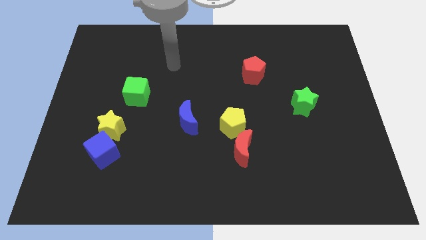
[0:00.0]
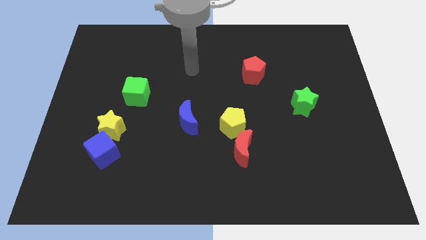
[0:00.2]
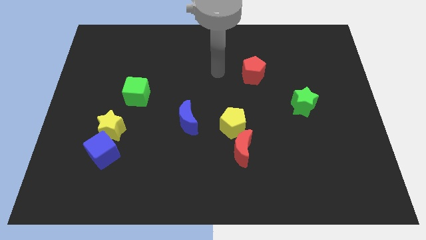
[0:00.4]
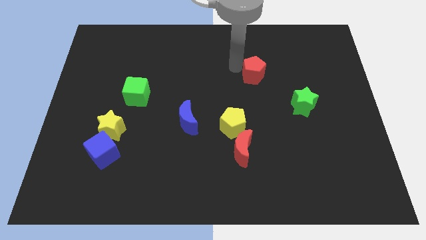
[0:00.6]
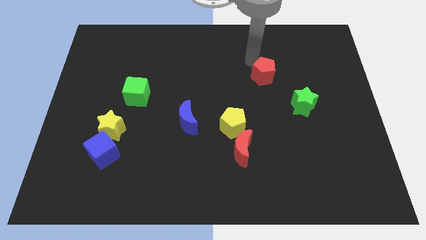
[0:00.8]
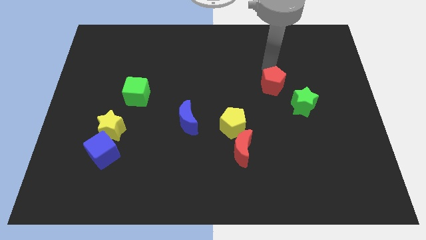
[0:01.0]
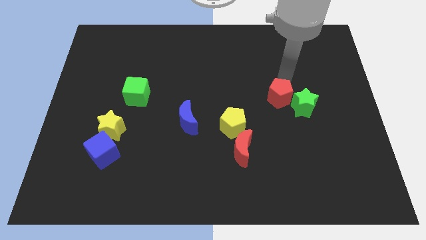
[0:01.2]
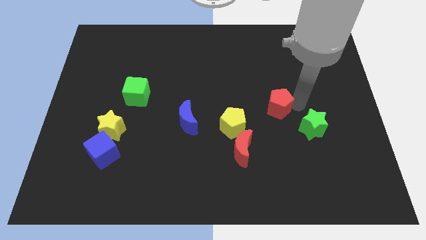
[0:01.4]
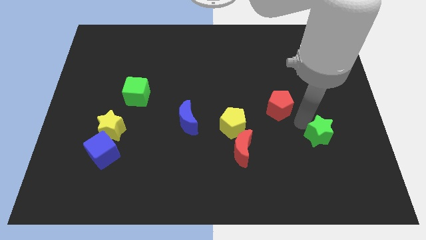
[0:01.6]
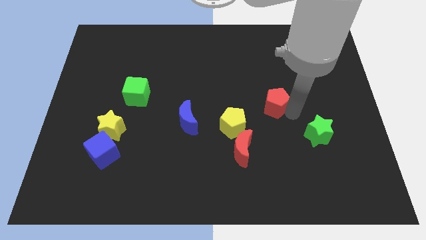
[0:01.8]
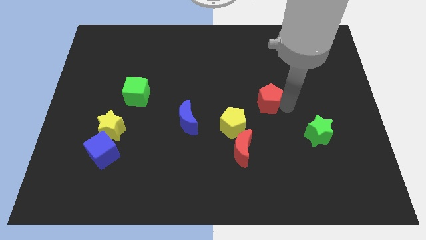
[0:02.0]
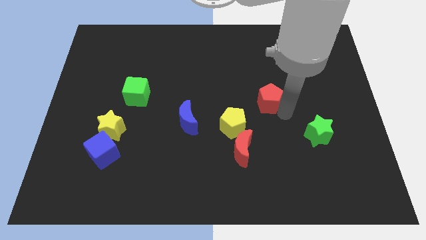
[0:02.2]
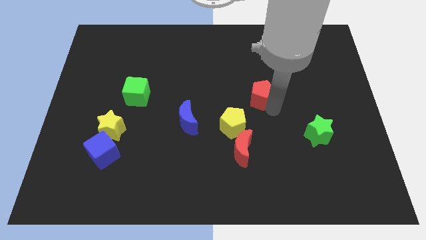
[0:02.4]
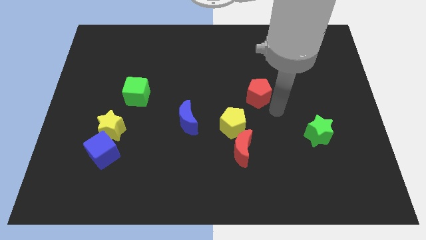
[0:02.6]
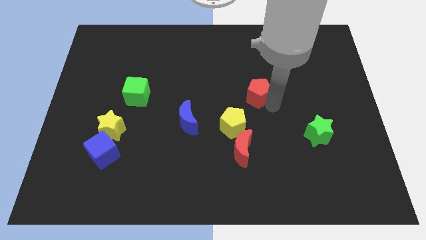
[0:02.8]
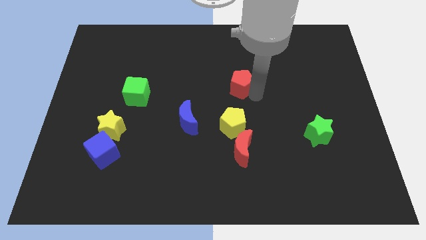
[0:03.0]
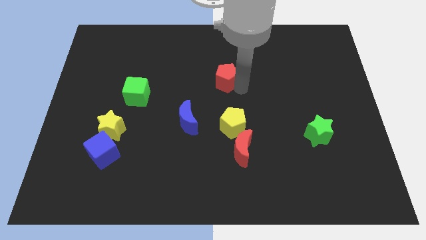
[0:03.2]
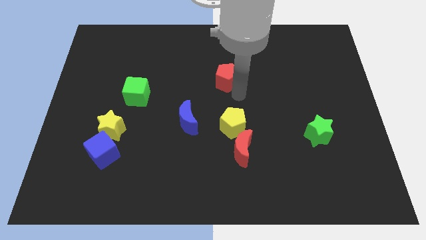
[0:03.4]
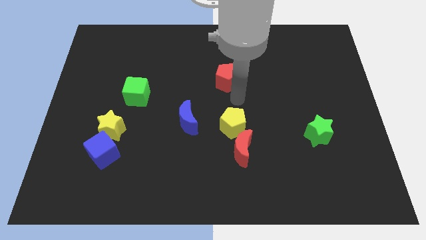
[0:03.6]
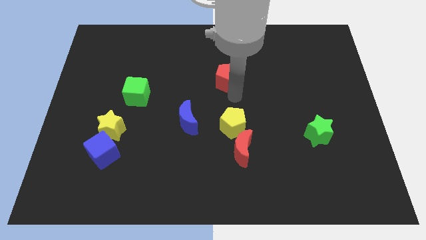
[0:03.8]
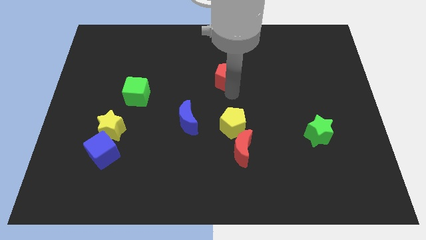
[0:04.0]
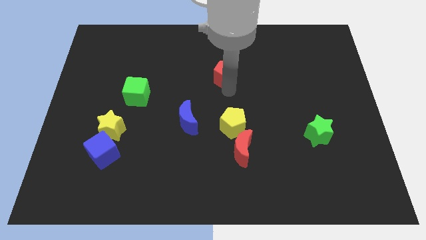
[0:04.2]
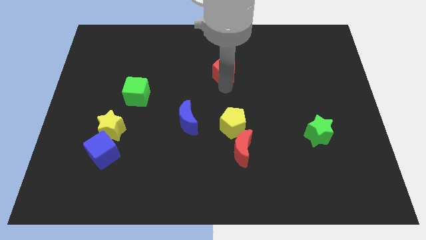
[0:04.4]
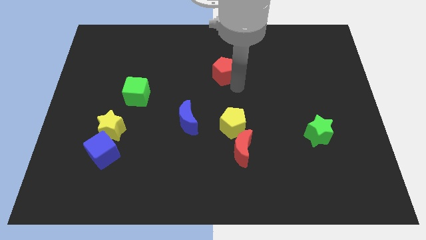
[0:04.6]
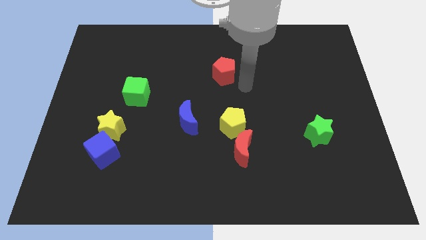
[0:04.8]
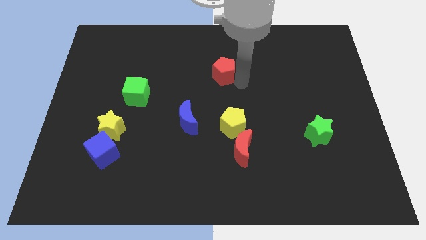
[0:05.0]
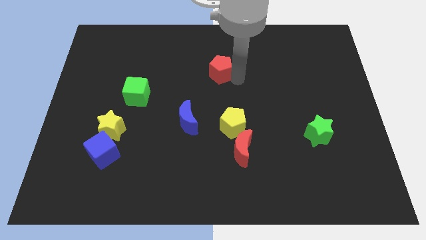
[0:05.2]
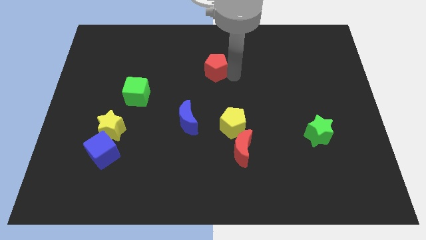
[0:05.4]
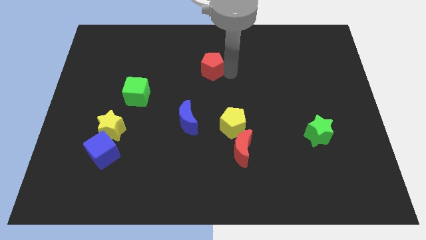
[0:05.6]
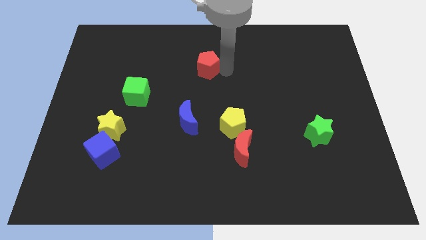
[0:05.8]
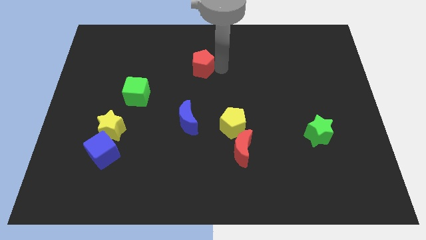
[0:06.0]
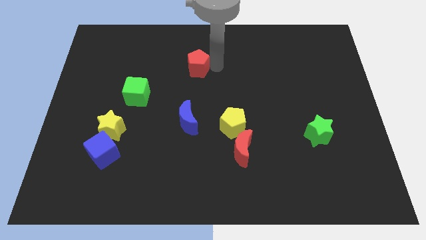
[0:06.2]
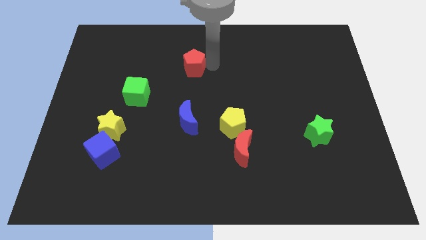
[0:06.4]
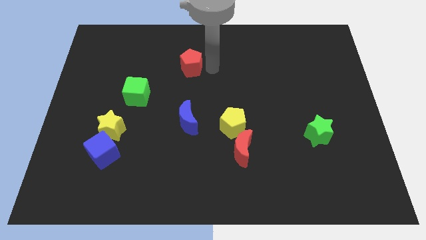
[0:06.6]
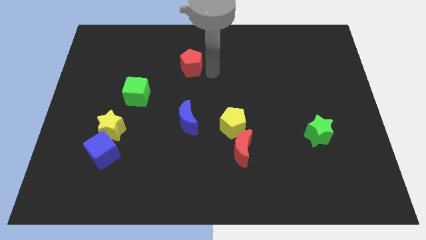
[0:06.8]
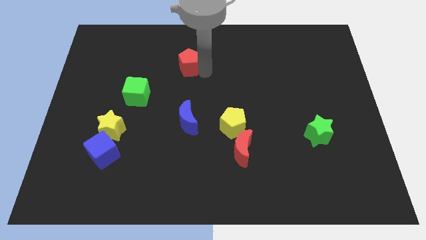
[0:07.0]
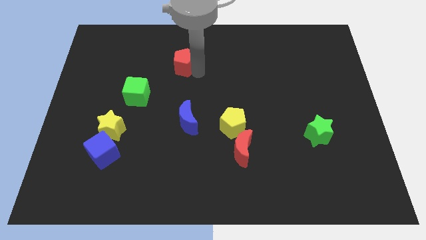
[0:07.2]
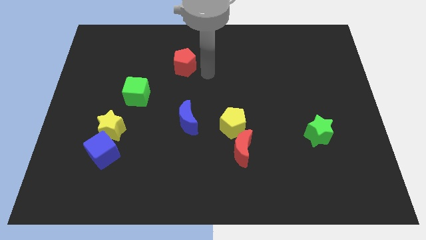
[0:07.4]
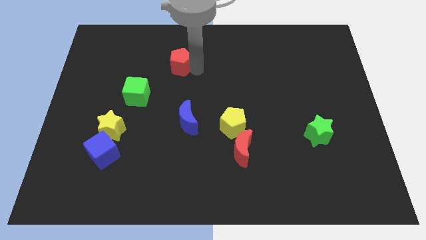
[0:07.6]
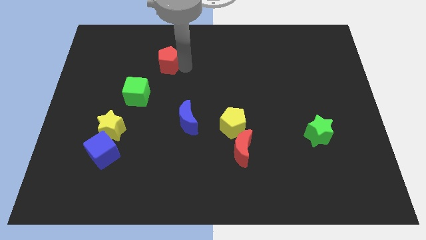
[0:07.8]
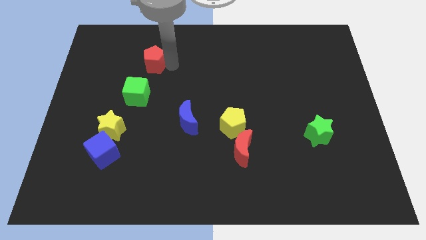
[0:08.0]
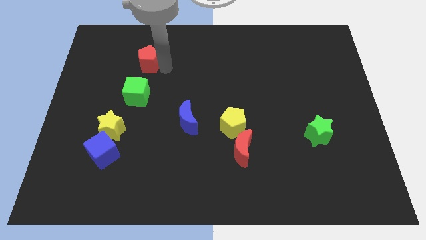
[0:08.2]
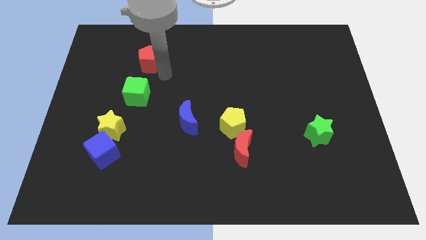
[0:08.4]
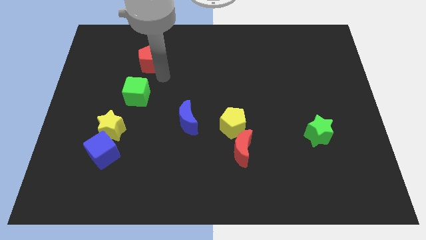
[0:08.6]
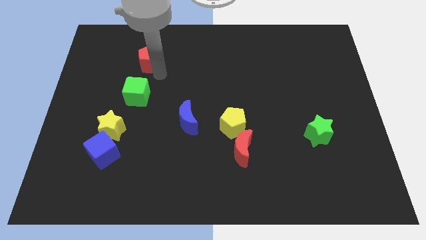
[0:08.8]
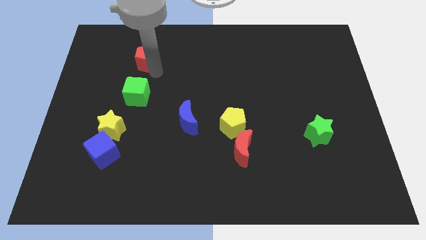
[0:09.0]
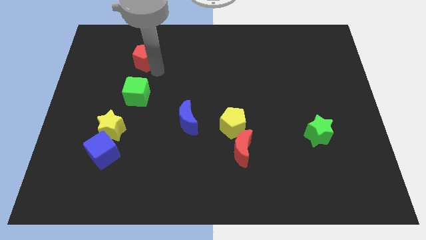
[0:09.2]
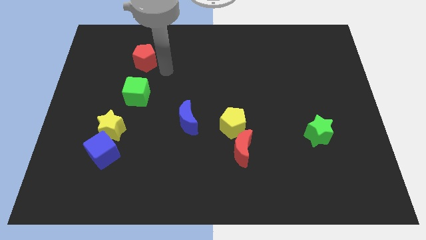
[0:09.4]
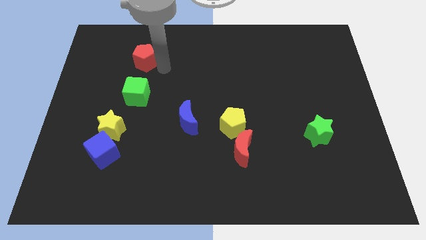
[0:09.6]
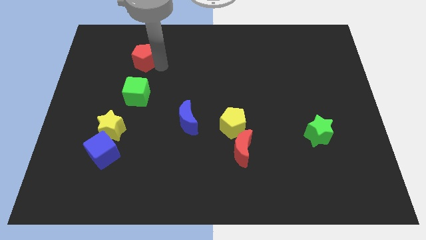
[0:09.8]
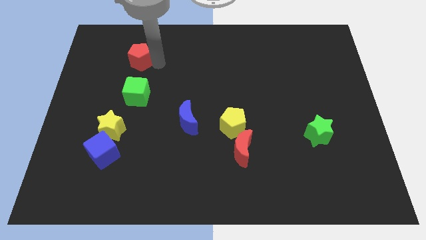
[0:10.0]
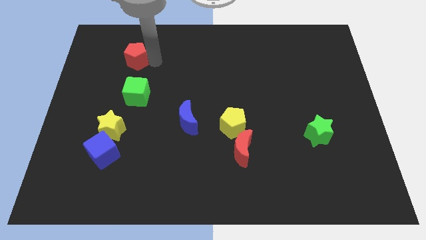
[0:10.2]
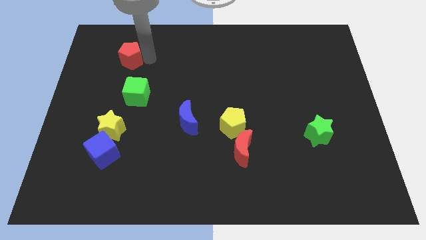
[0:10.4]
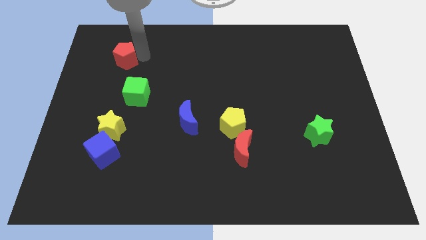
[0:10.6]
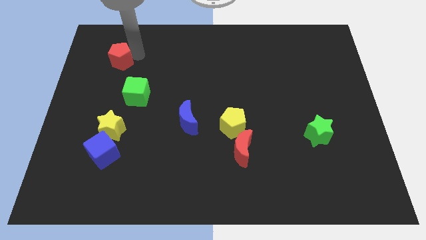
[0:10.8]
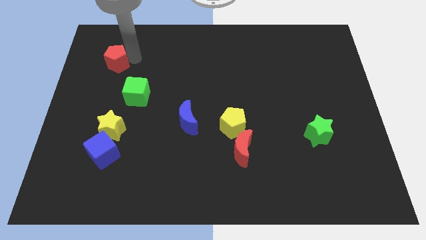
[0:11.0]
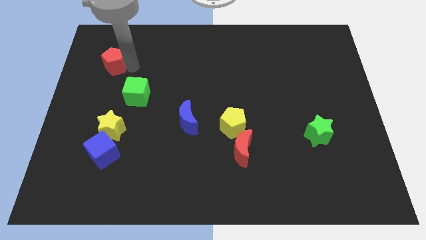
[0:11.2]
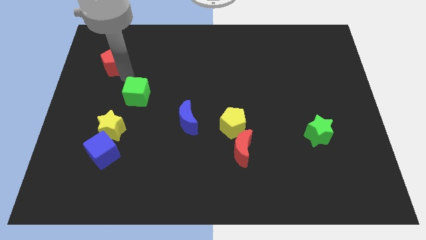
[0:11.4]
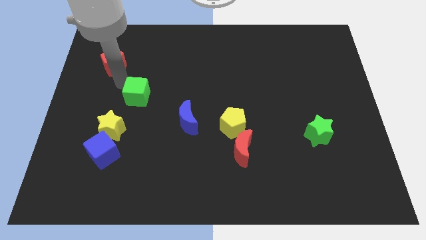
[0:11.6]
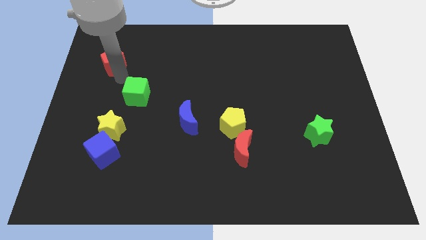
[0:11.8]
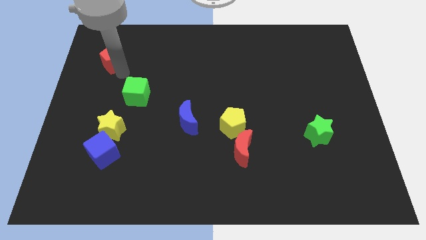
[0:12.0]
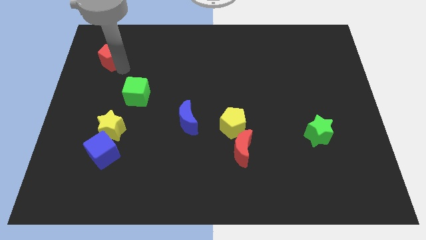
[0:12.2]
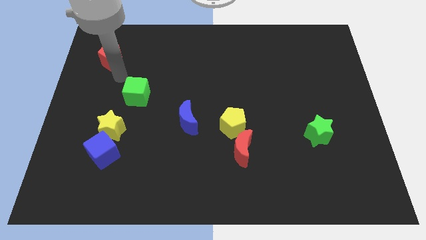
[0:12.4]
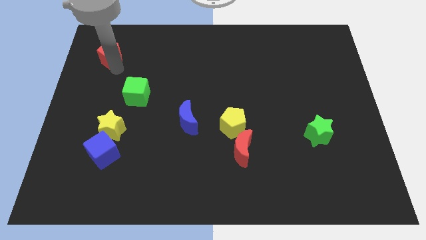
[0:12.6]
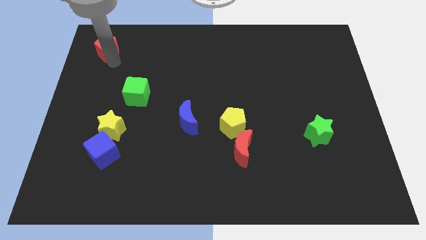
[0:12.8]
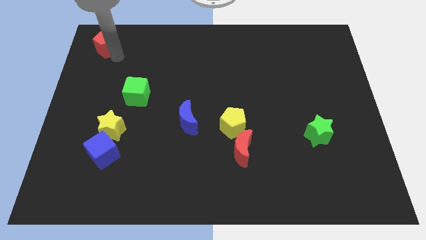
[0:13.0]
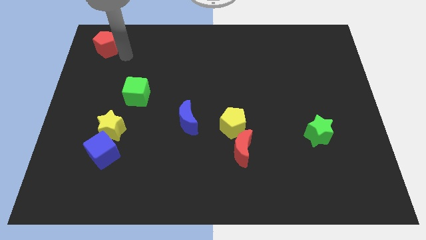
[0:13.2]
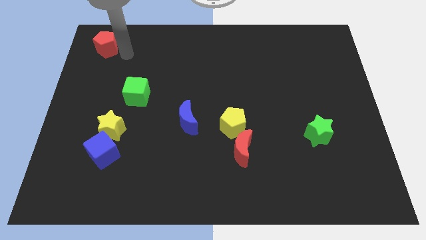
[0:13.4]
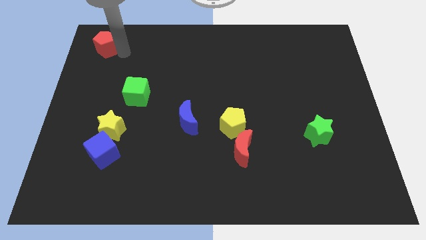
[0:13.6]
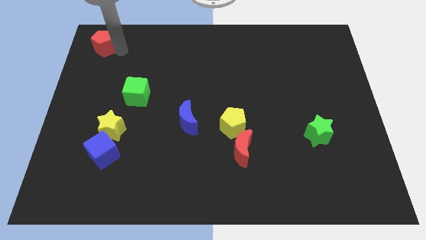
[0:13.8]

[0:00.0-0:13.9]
move the red pentagon to the upper left corner
